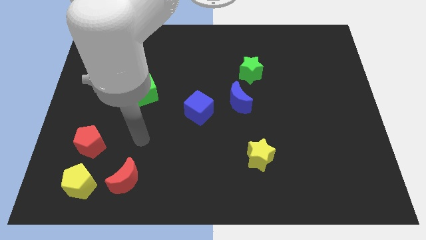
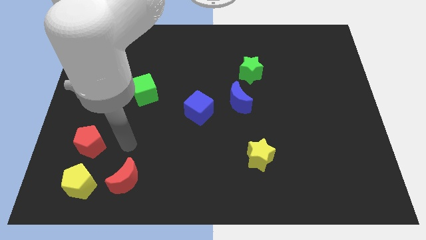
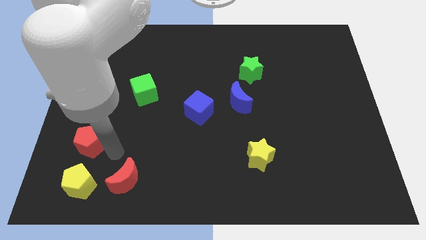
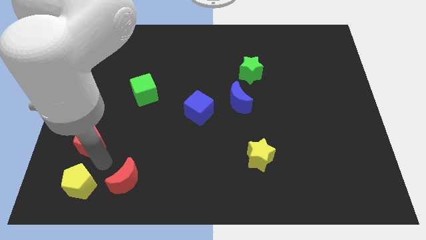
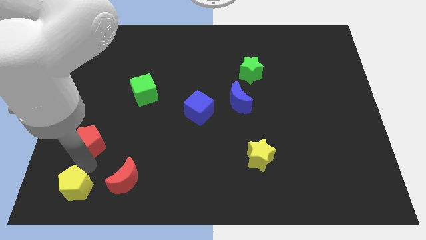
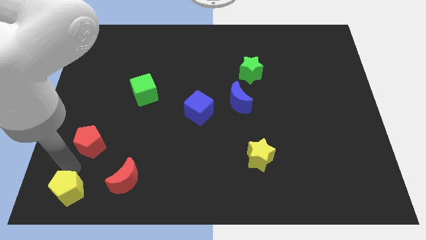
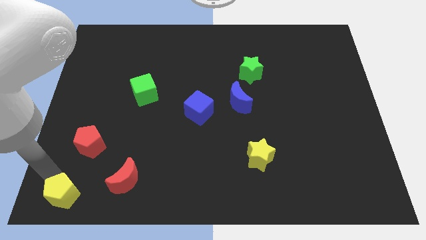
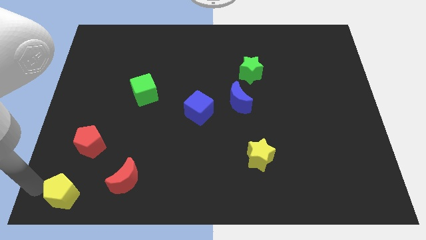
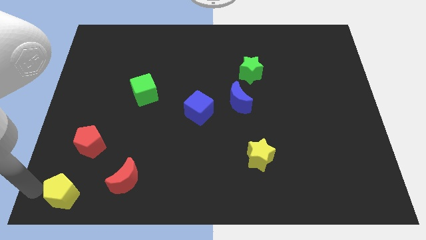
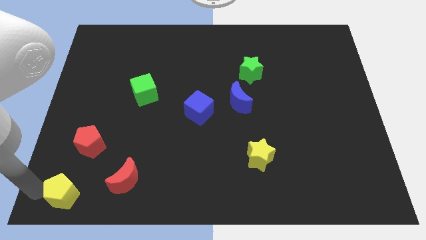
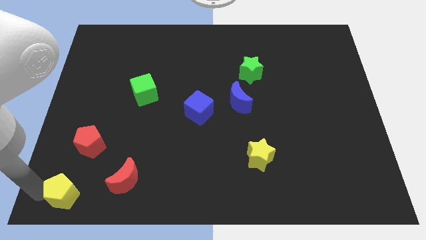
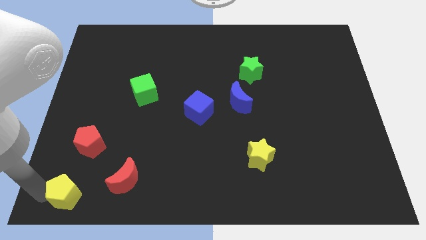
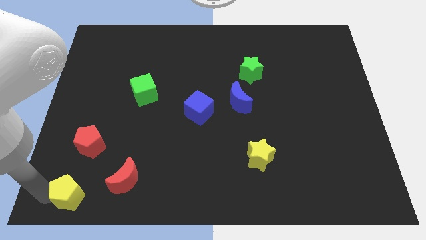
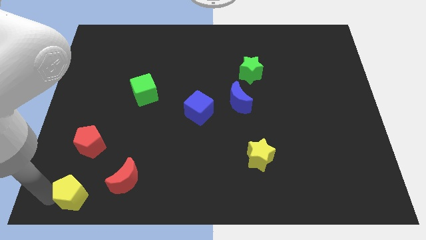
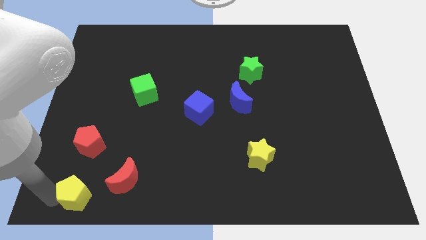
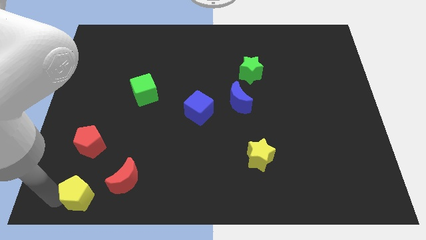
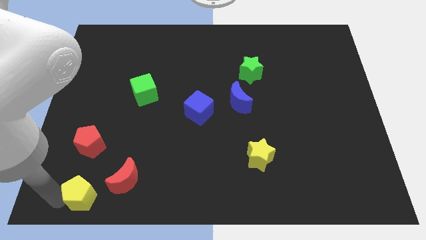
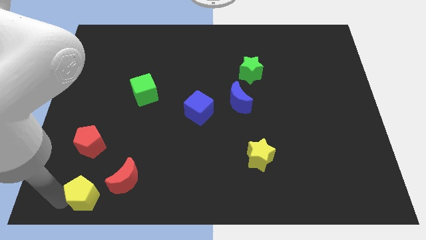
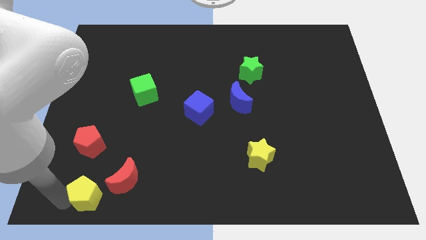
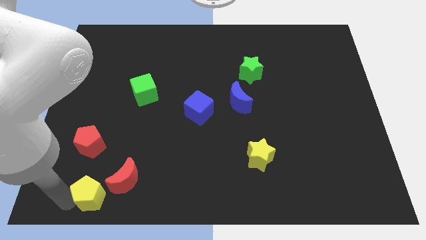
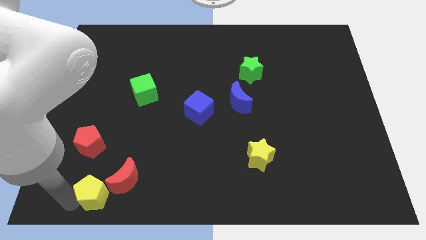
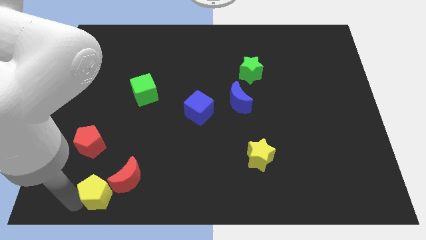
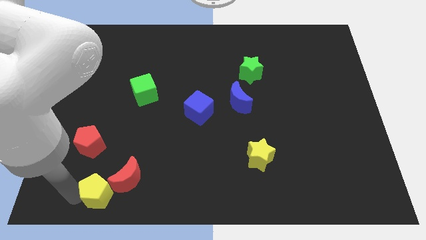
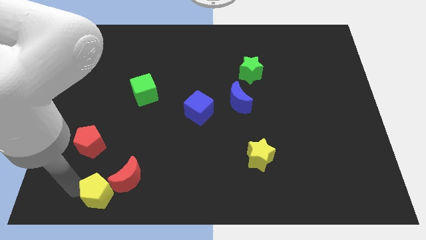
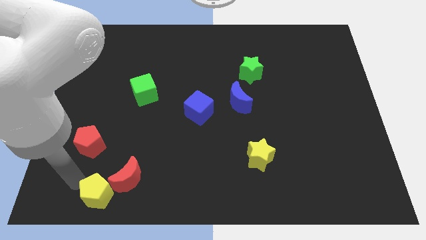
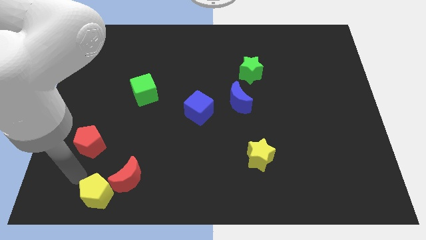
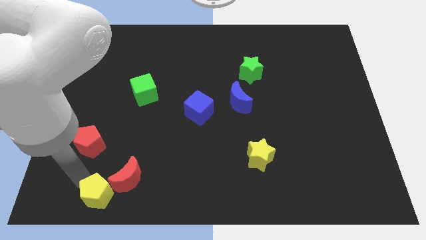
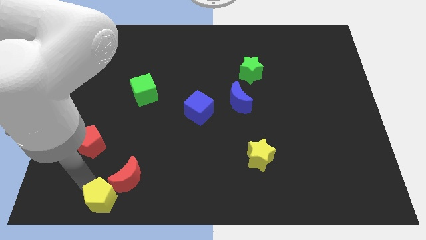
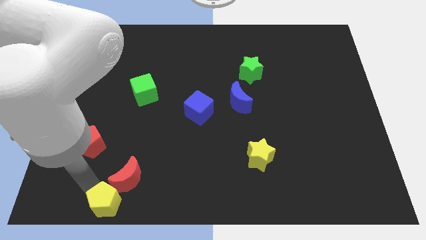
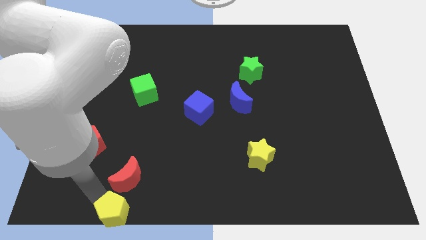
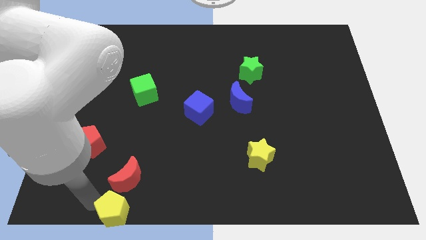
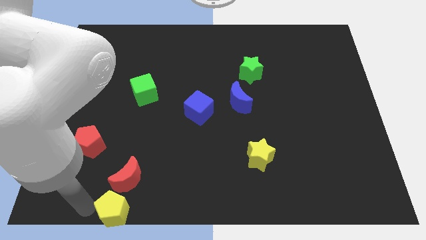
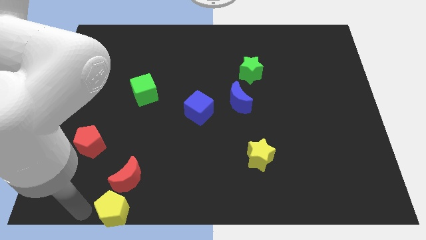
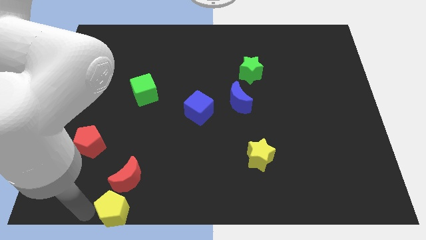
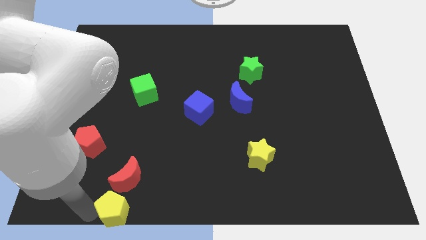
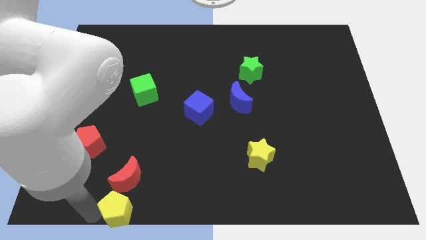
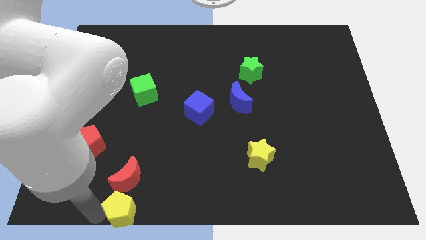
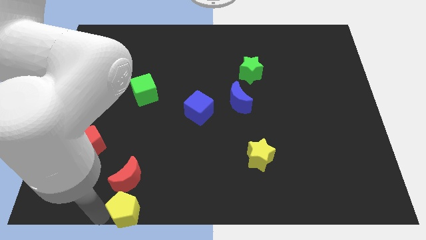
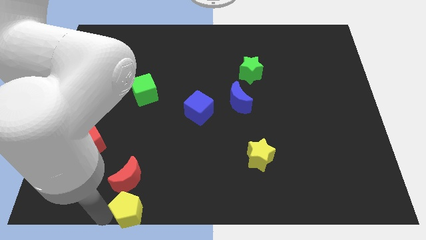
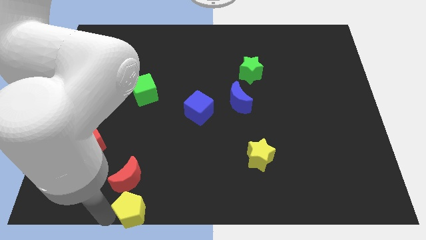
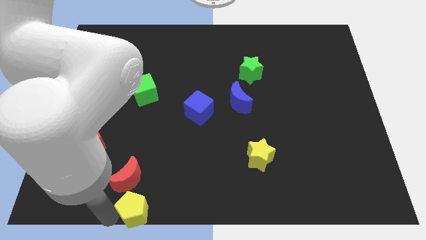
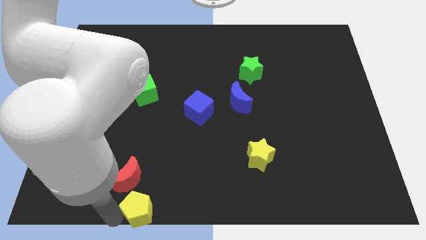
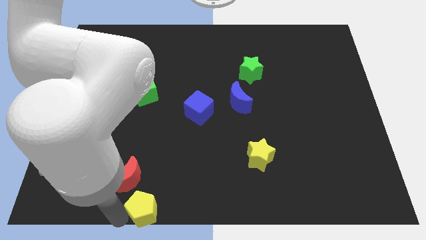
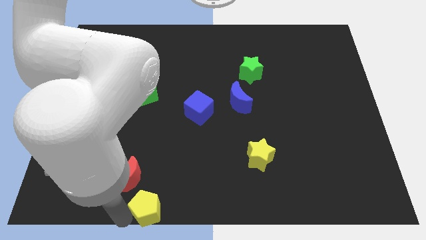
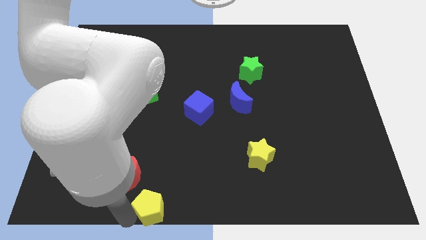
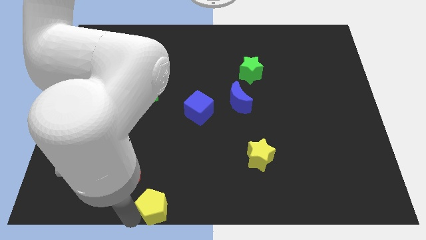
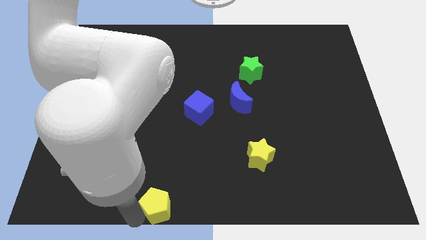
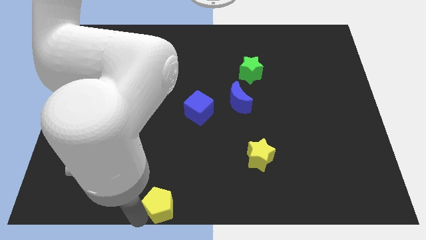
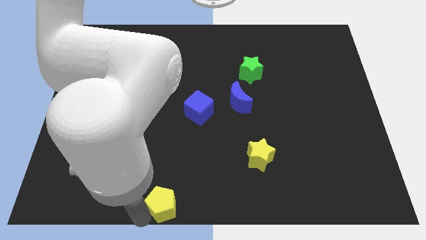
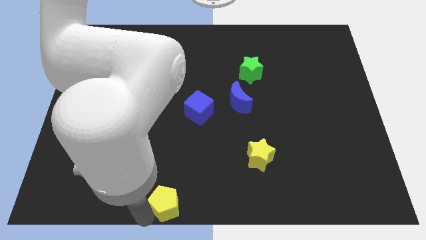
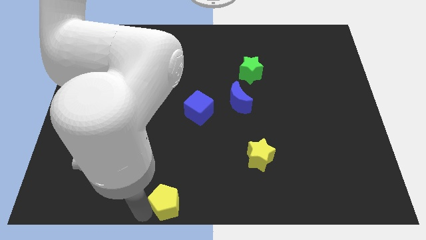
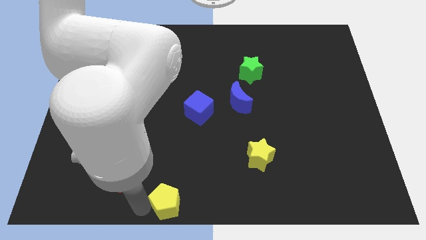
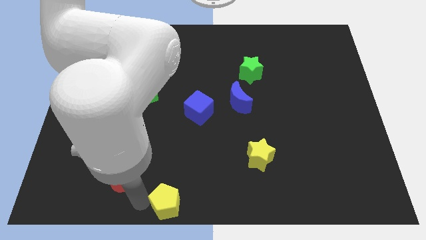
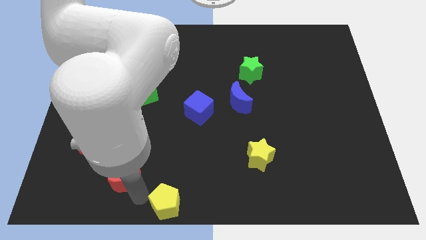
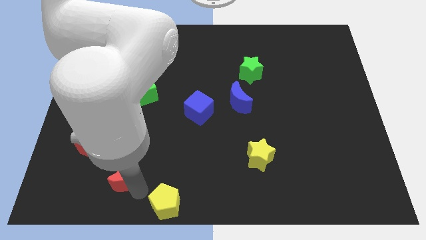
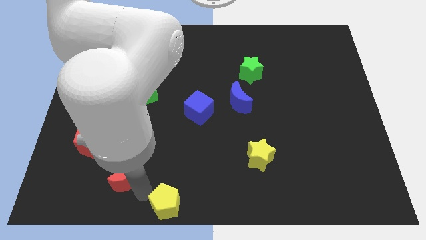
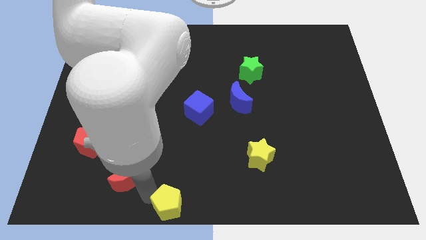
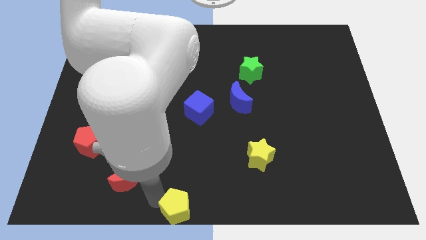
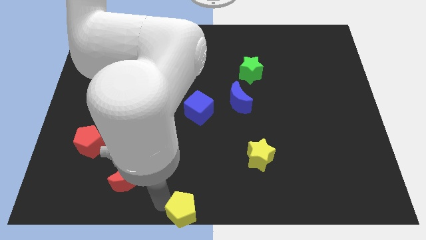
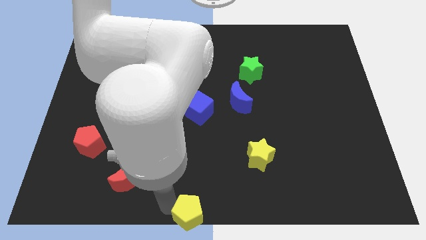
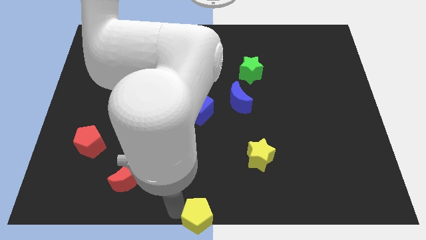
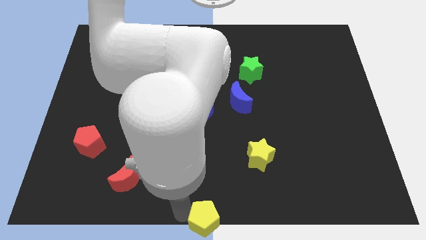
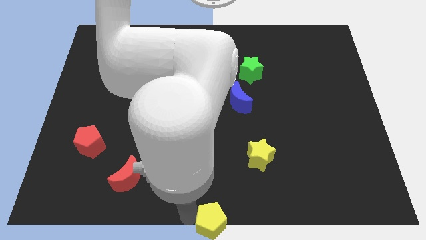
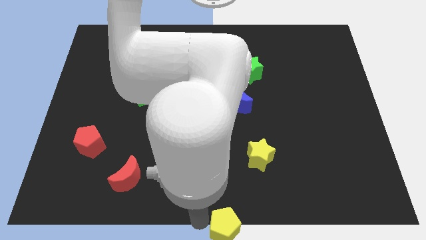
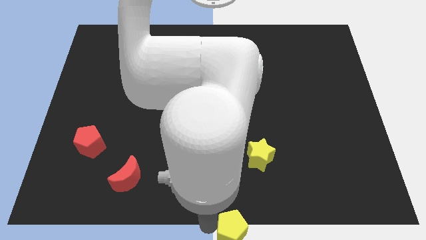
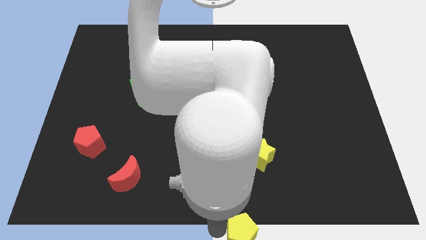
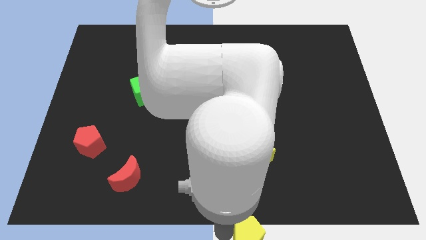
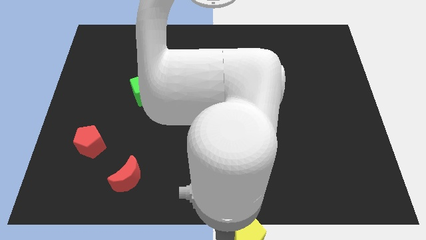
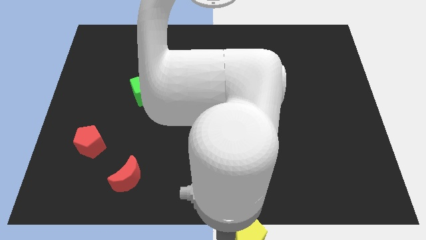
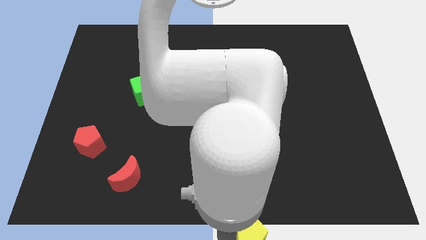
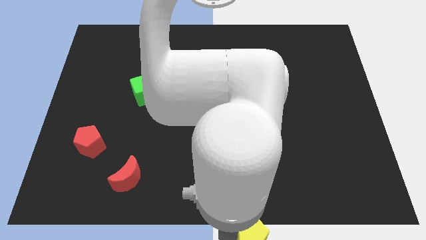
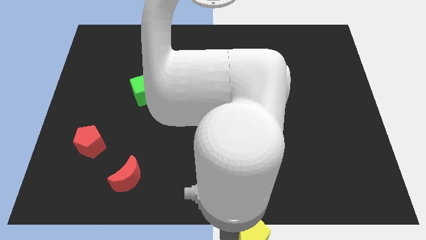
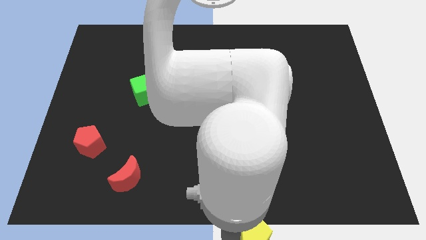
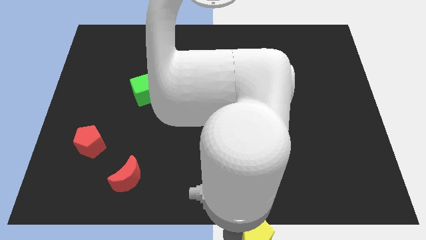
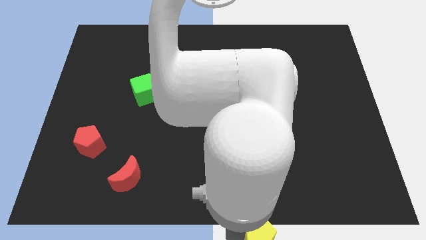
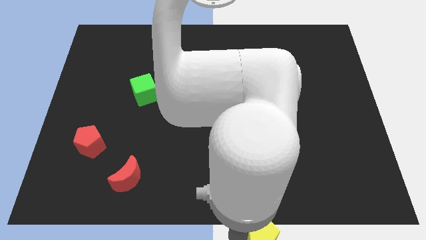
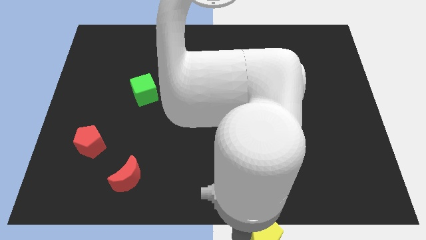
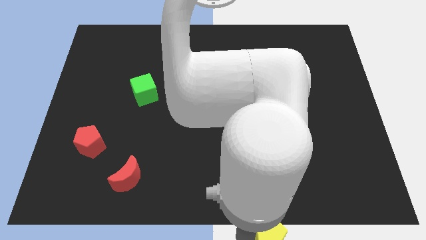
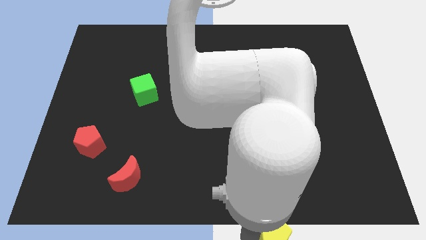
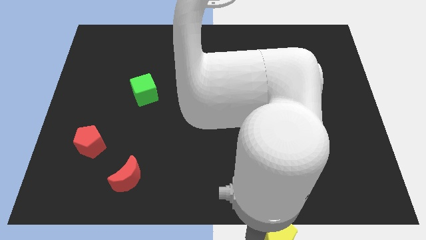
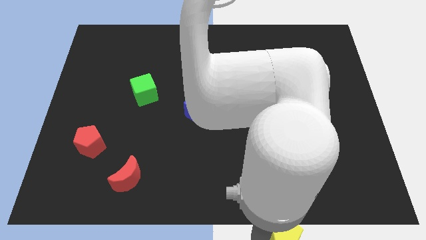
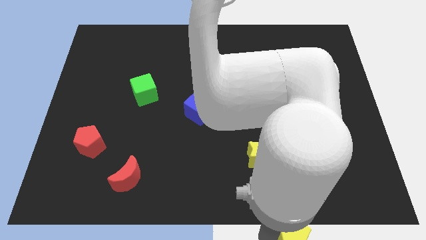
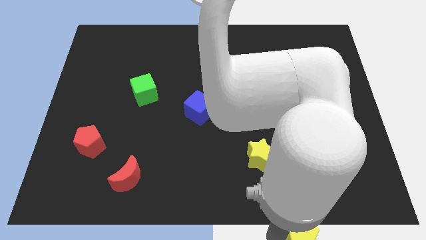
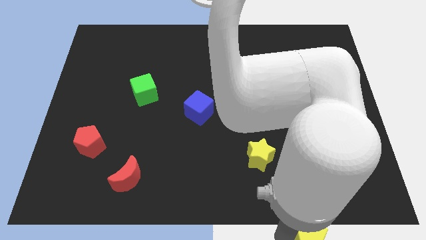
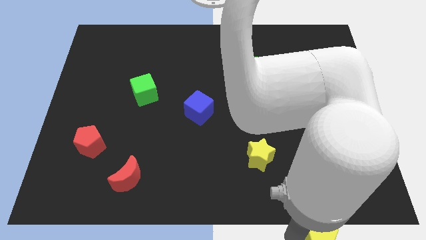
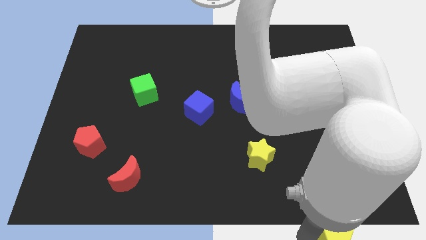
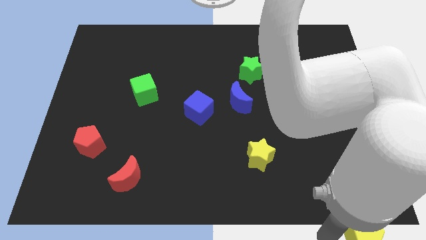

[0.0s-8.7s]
put the yellow pentagon to the bottom right corner
